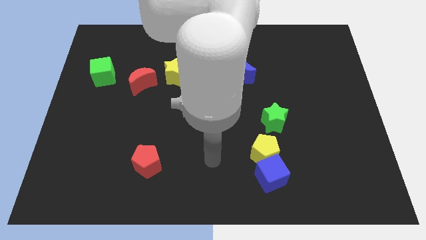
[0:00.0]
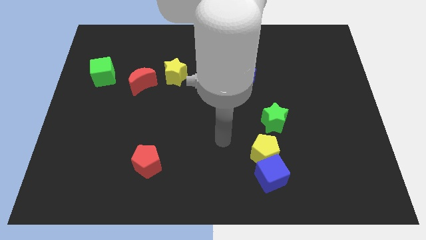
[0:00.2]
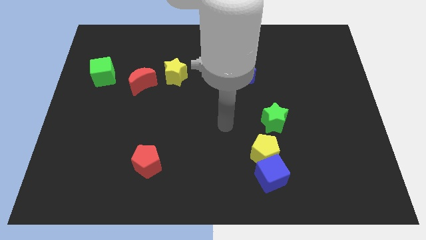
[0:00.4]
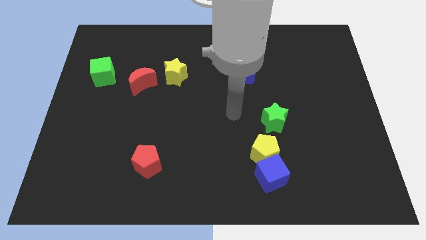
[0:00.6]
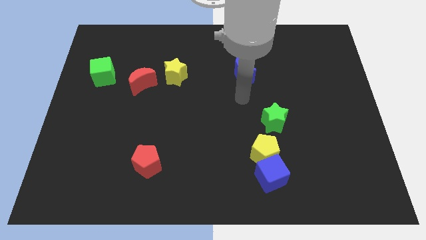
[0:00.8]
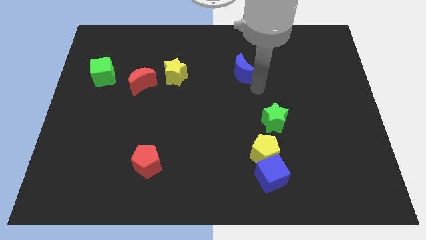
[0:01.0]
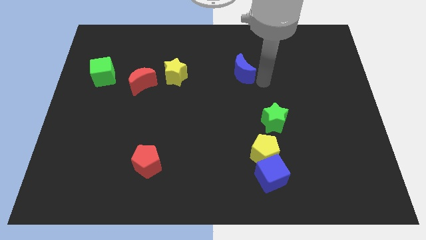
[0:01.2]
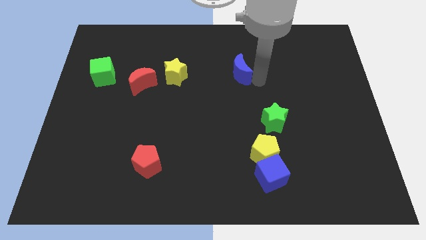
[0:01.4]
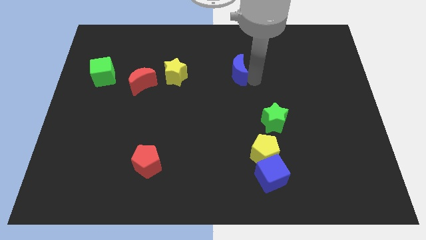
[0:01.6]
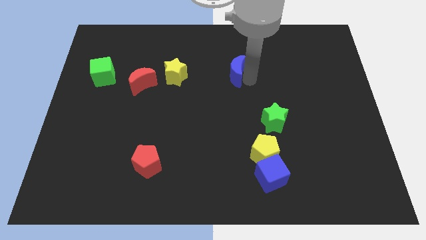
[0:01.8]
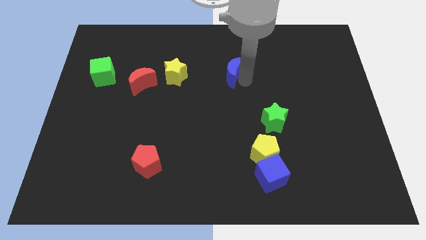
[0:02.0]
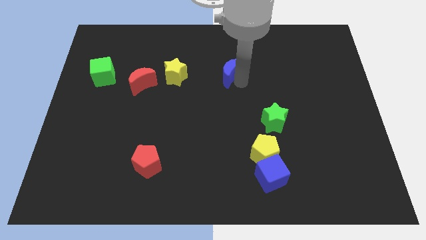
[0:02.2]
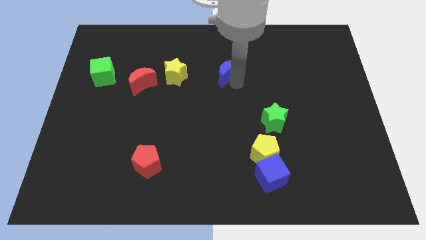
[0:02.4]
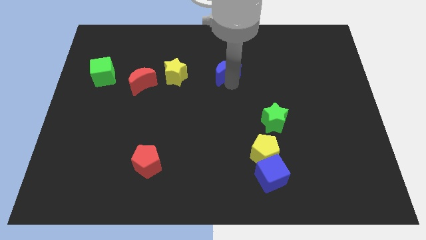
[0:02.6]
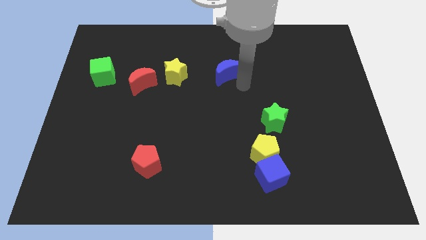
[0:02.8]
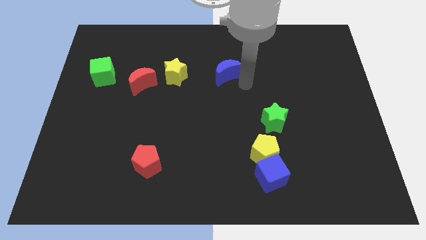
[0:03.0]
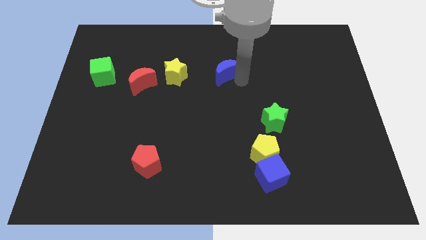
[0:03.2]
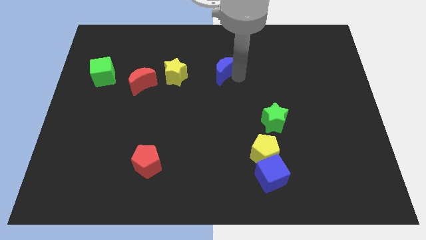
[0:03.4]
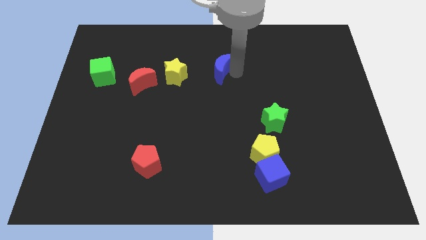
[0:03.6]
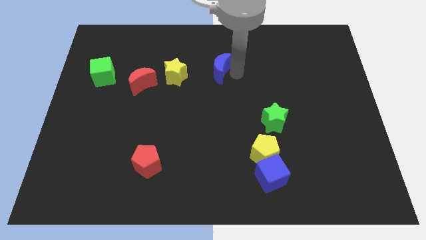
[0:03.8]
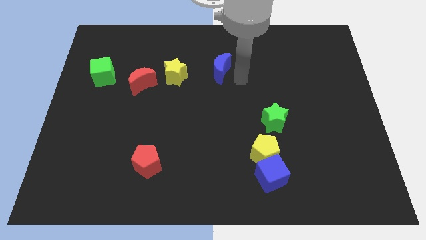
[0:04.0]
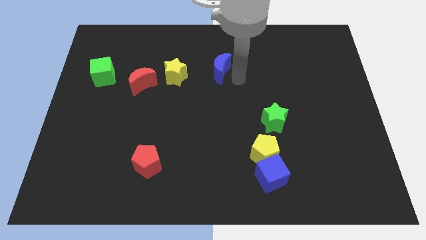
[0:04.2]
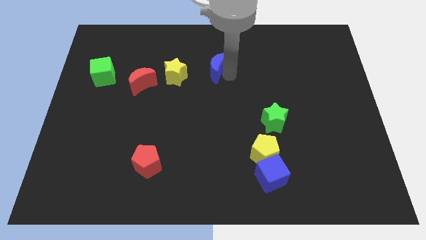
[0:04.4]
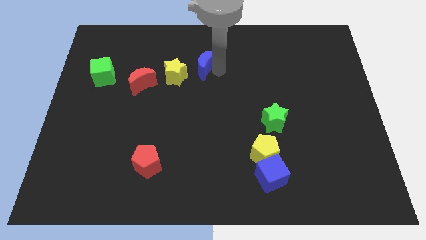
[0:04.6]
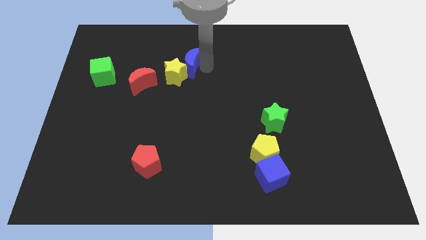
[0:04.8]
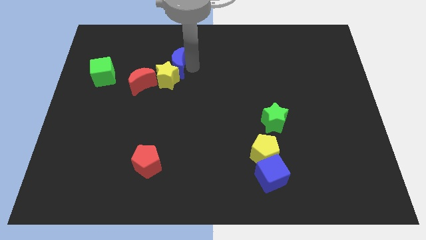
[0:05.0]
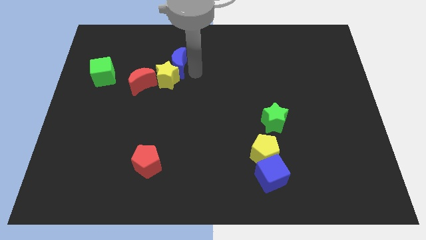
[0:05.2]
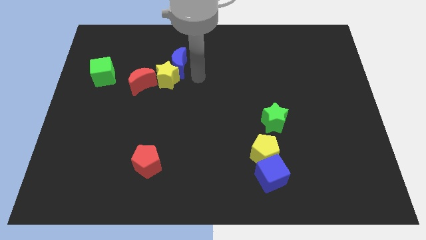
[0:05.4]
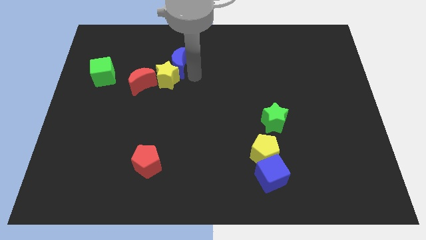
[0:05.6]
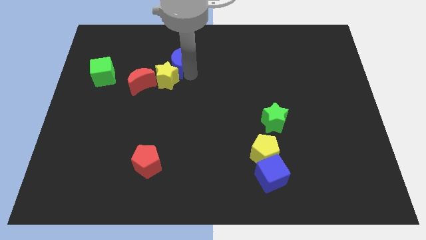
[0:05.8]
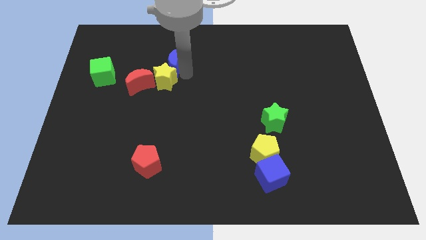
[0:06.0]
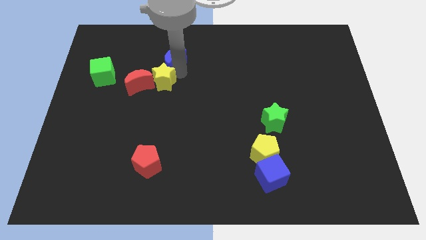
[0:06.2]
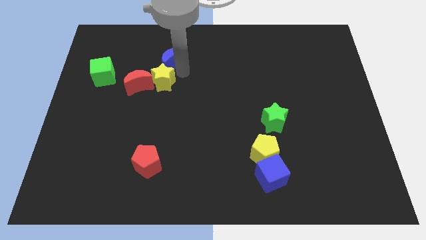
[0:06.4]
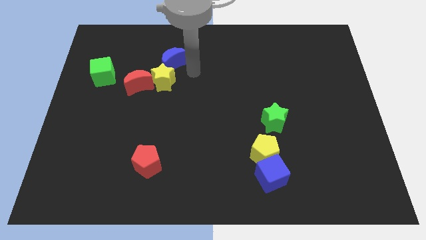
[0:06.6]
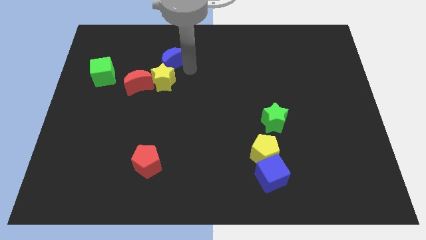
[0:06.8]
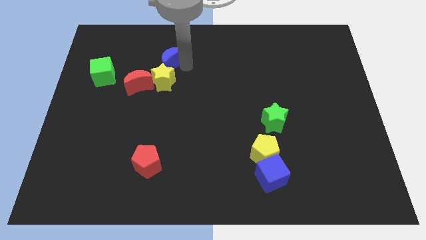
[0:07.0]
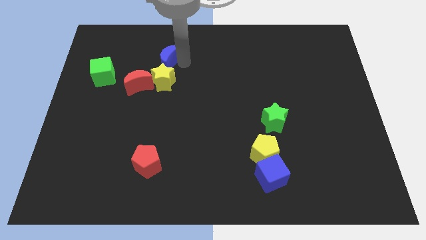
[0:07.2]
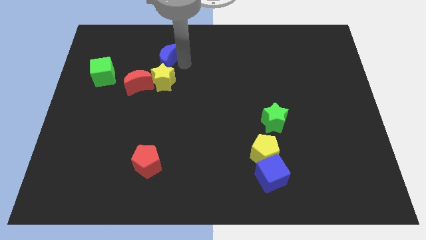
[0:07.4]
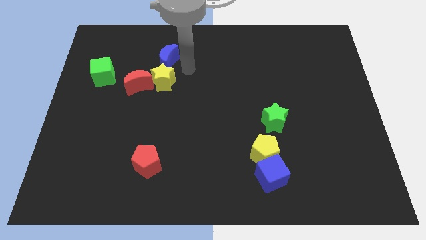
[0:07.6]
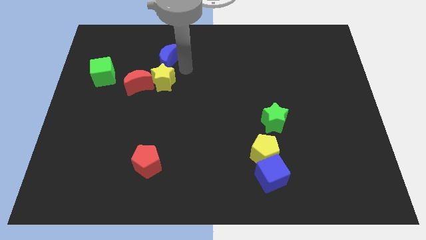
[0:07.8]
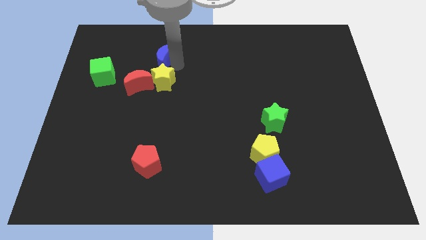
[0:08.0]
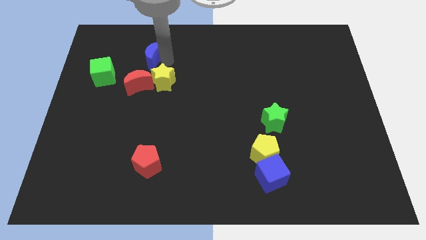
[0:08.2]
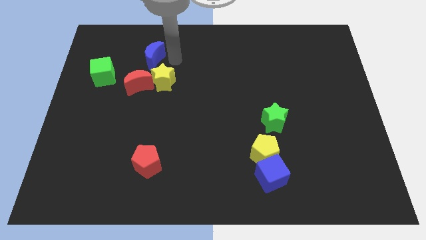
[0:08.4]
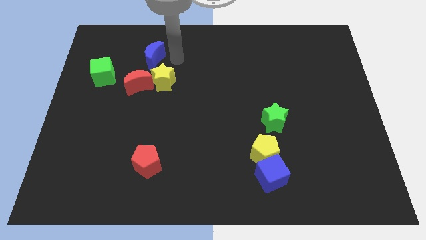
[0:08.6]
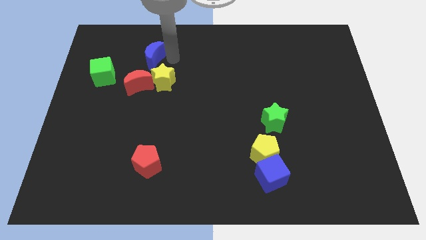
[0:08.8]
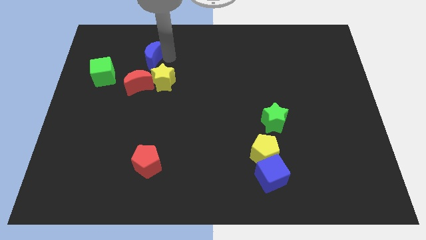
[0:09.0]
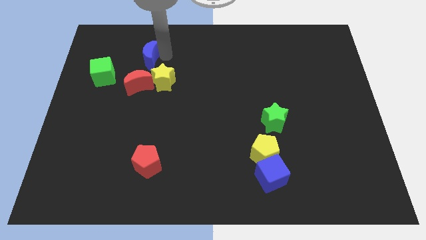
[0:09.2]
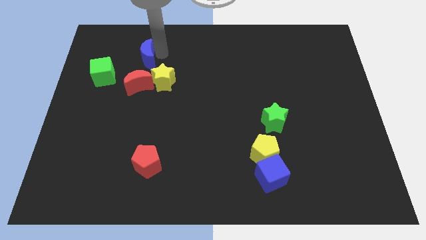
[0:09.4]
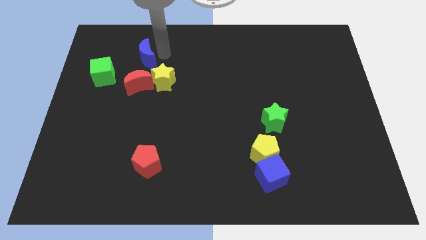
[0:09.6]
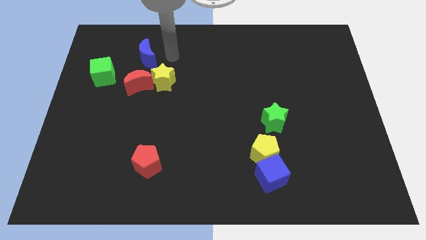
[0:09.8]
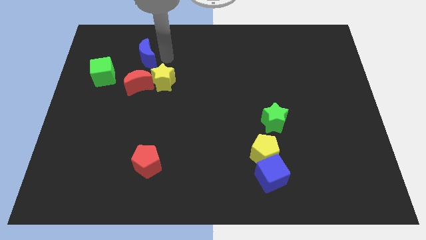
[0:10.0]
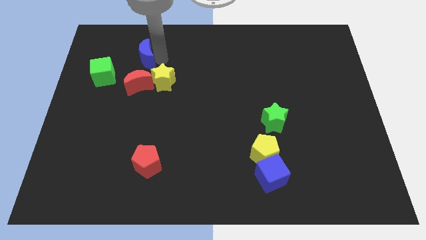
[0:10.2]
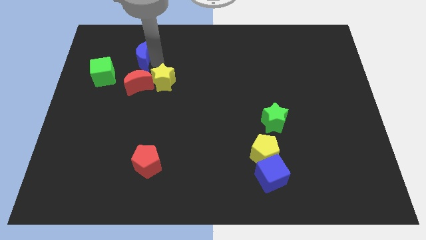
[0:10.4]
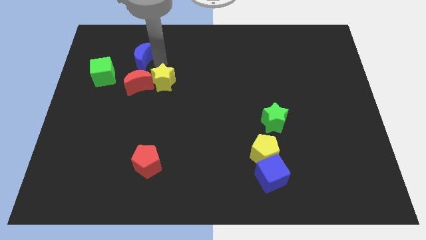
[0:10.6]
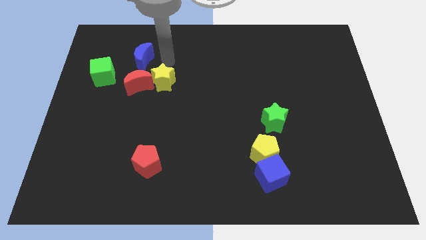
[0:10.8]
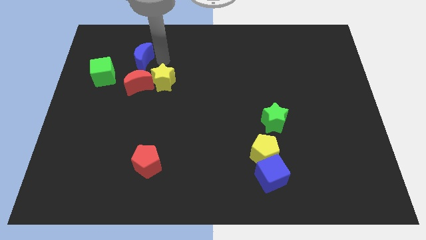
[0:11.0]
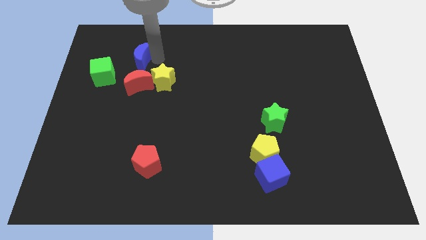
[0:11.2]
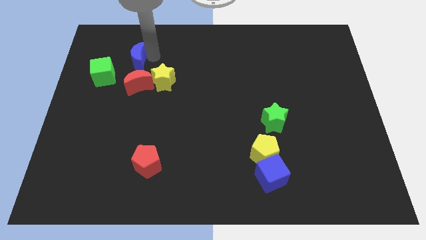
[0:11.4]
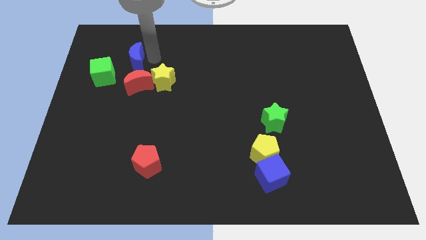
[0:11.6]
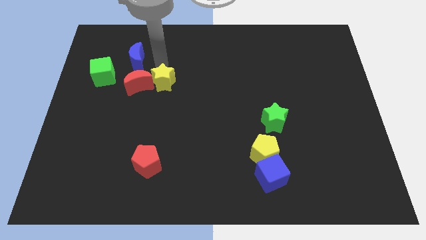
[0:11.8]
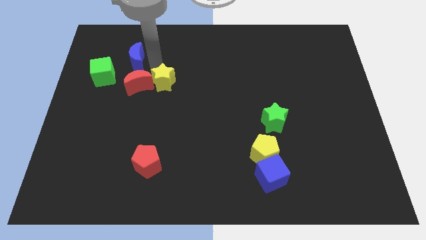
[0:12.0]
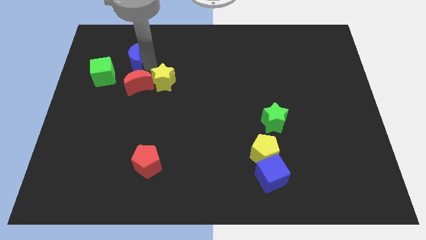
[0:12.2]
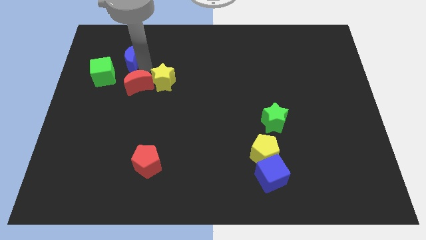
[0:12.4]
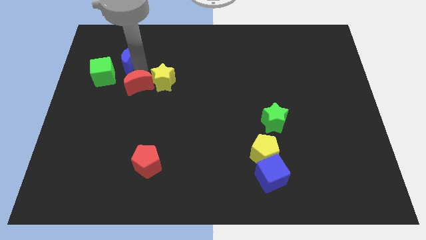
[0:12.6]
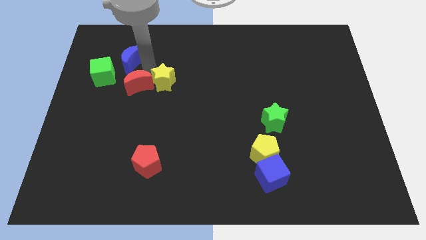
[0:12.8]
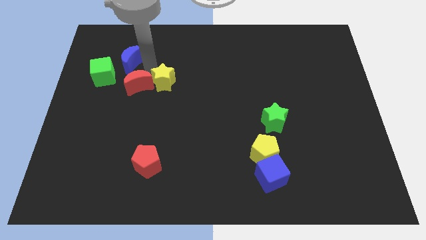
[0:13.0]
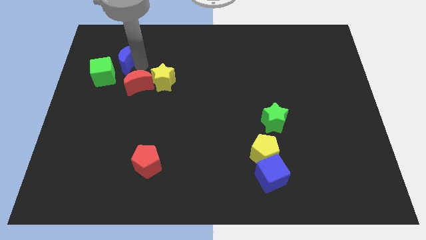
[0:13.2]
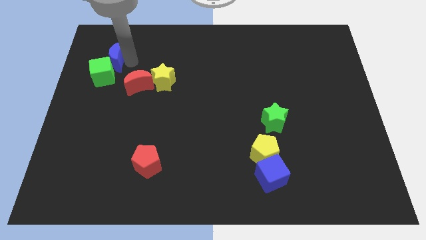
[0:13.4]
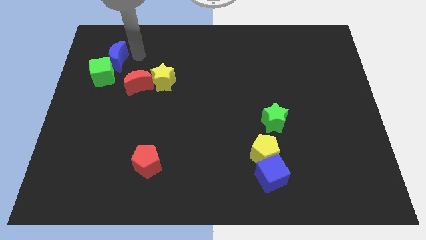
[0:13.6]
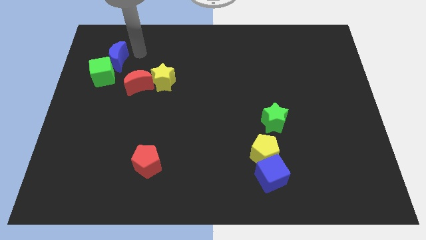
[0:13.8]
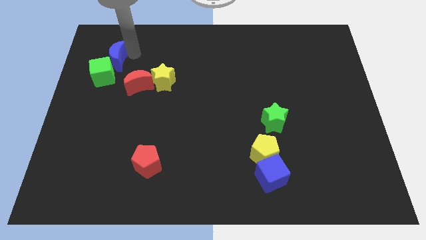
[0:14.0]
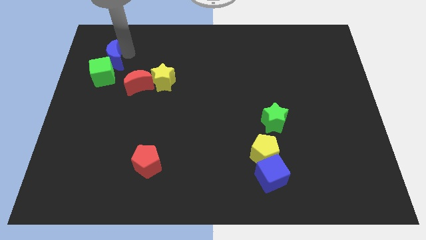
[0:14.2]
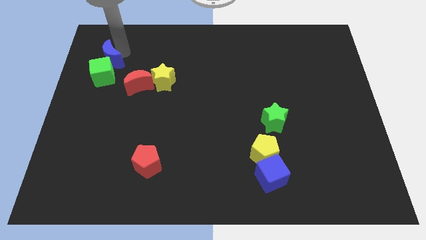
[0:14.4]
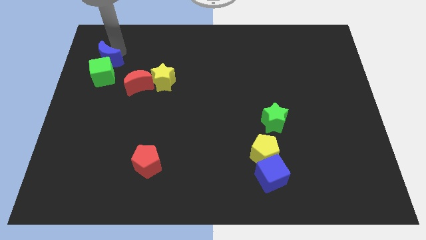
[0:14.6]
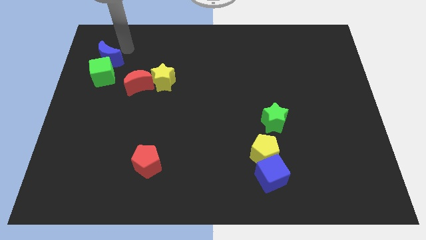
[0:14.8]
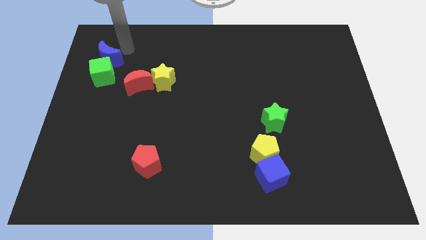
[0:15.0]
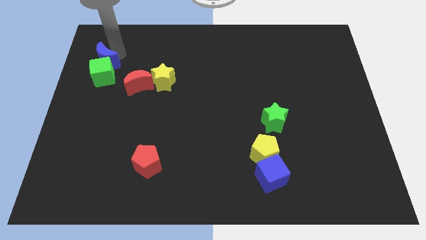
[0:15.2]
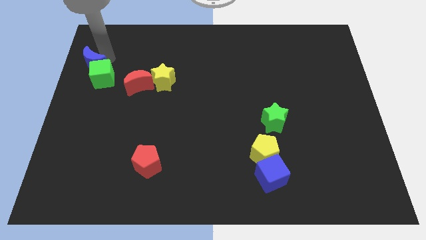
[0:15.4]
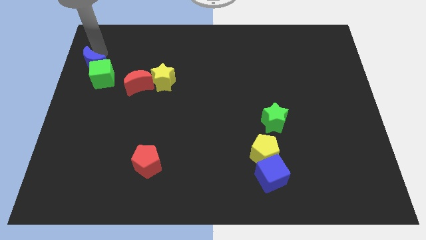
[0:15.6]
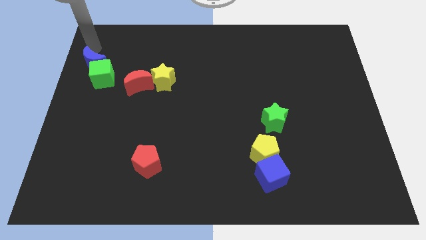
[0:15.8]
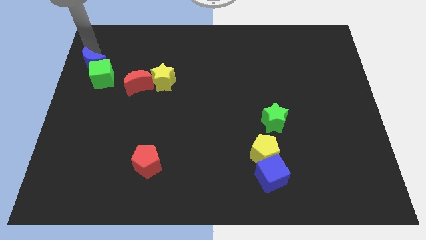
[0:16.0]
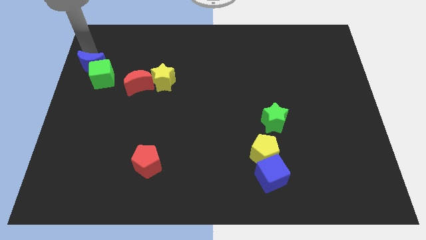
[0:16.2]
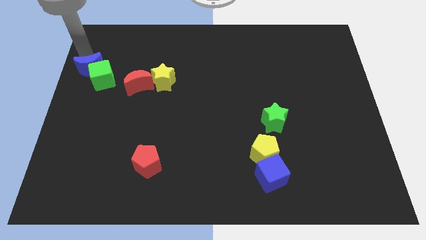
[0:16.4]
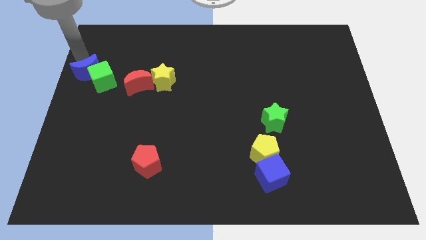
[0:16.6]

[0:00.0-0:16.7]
put the blue moon left of the red moon
